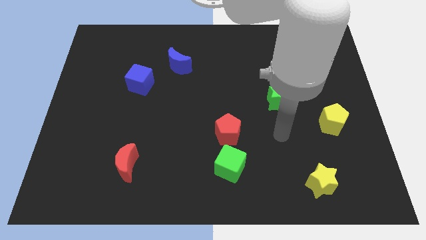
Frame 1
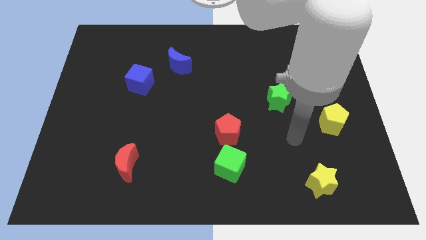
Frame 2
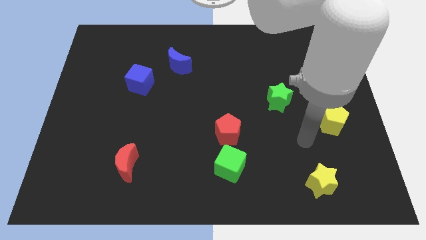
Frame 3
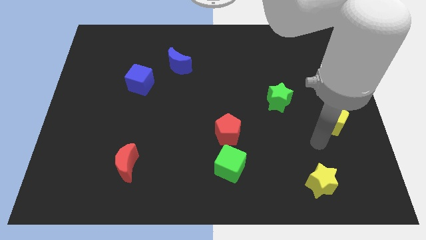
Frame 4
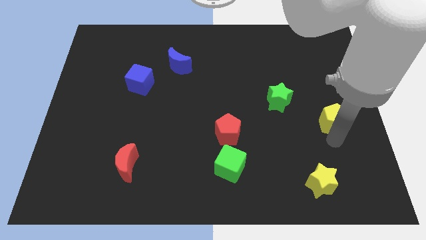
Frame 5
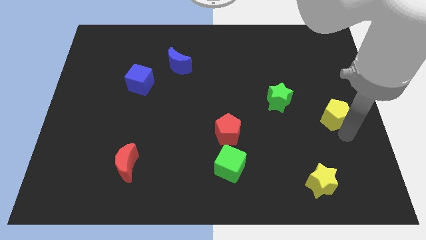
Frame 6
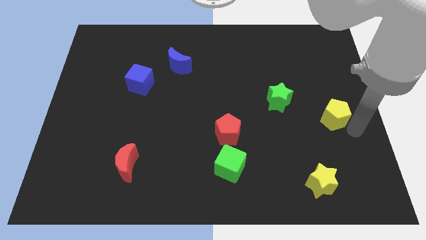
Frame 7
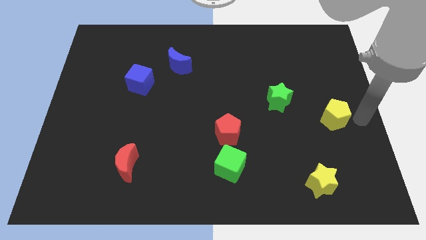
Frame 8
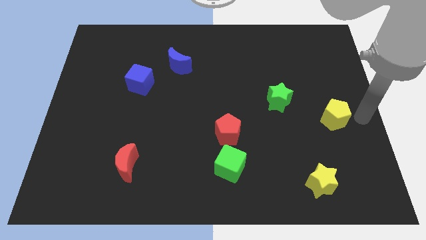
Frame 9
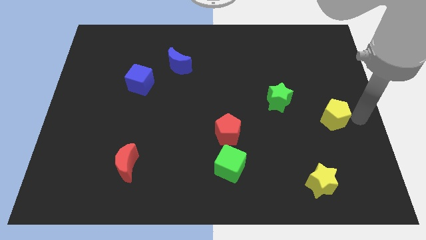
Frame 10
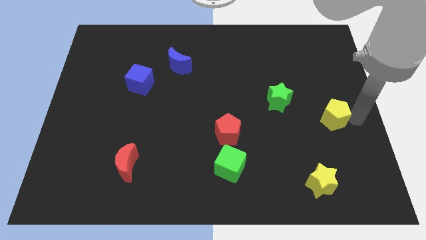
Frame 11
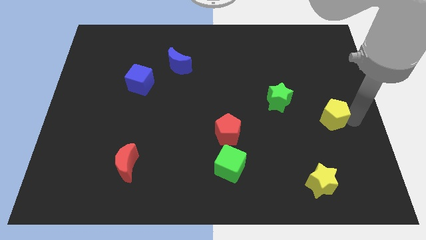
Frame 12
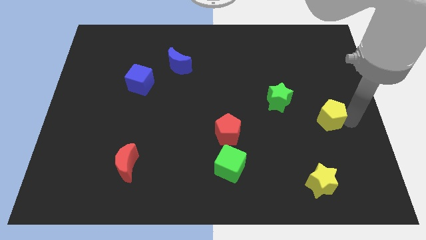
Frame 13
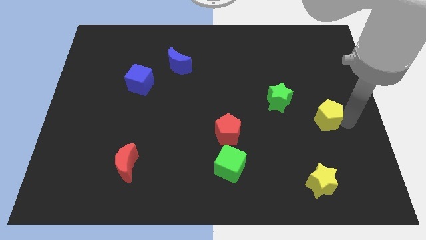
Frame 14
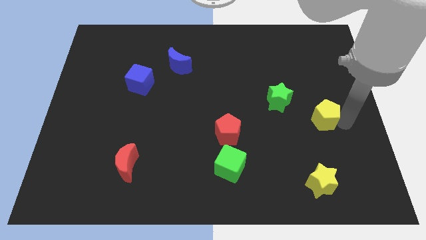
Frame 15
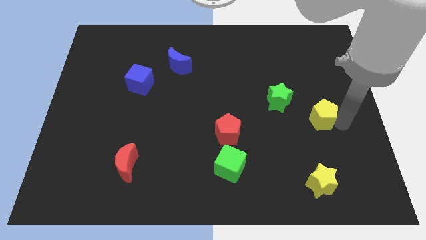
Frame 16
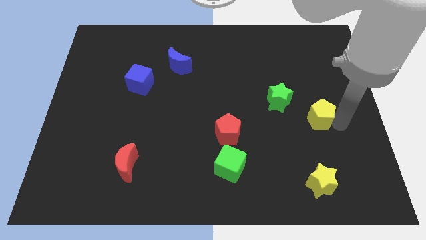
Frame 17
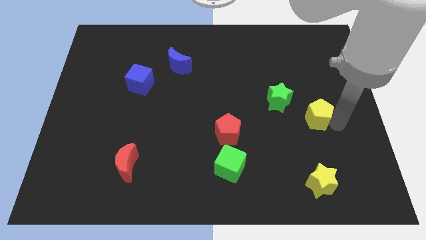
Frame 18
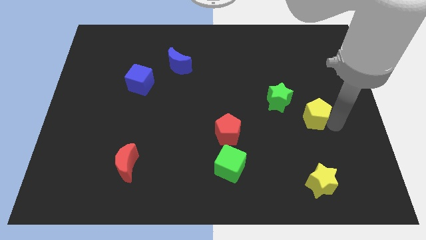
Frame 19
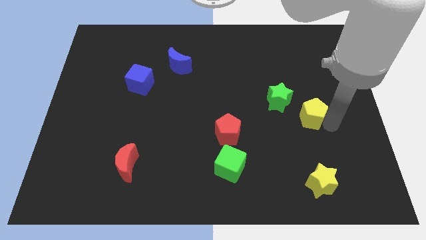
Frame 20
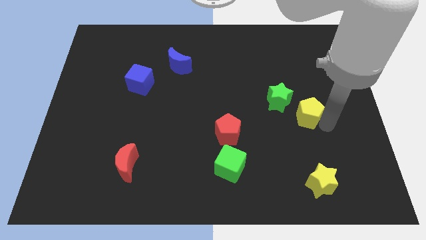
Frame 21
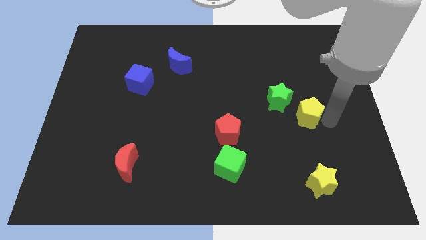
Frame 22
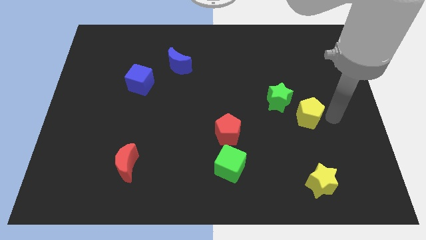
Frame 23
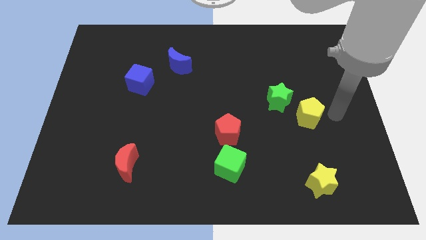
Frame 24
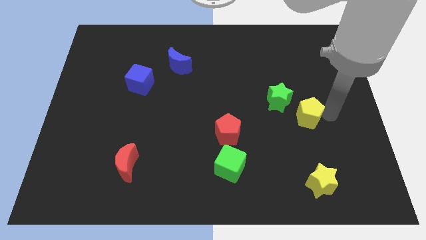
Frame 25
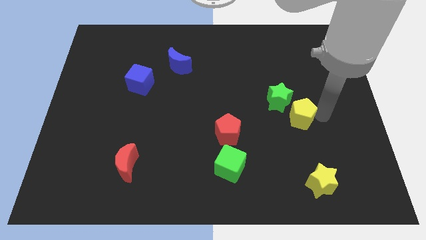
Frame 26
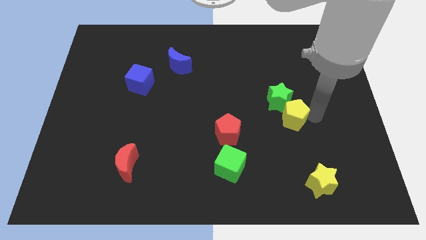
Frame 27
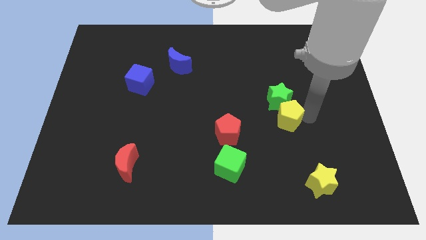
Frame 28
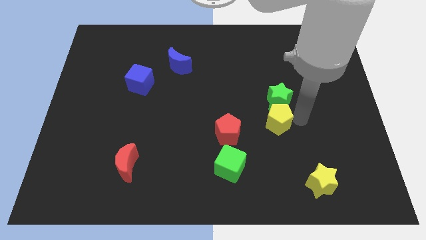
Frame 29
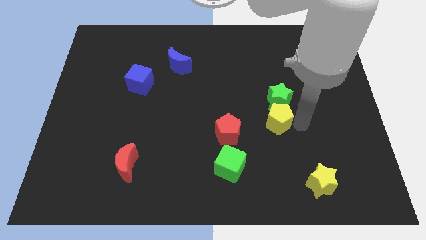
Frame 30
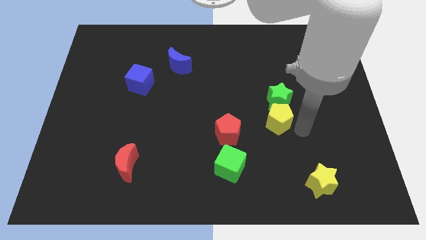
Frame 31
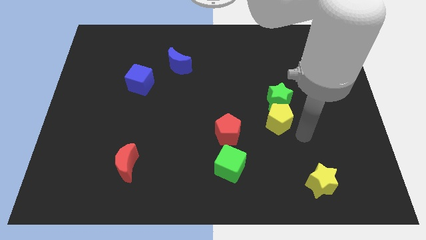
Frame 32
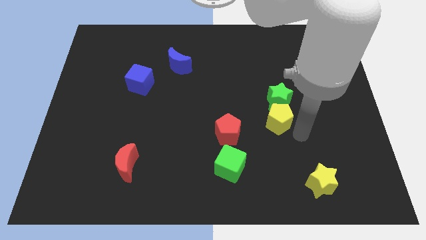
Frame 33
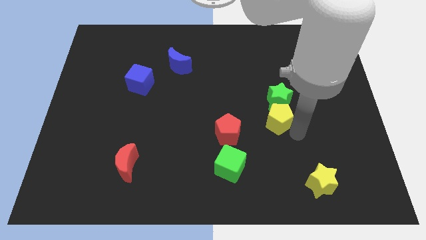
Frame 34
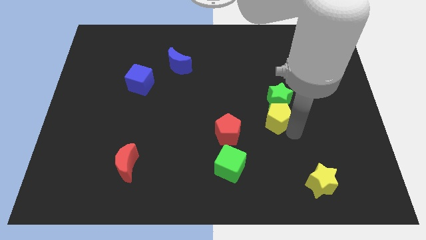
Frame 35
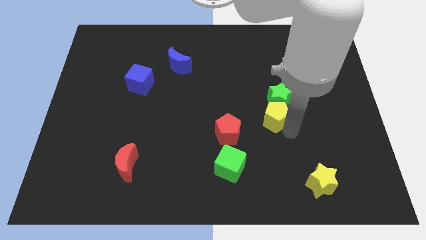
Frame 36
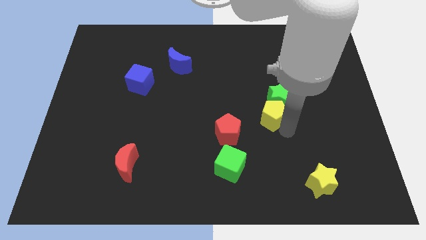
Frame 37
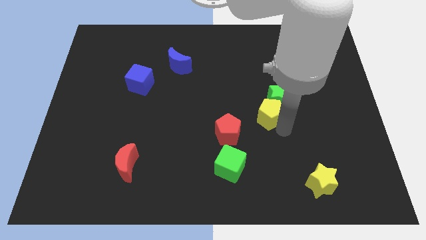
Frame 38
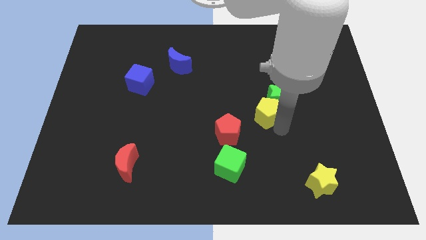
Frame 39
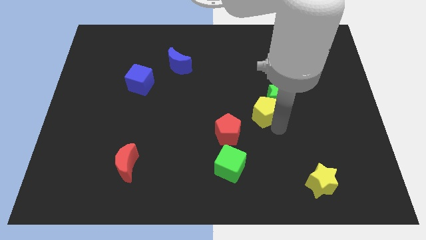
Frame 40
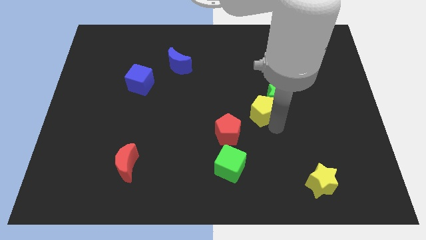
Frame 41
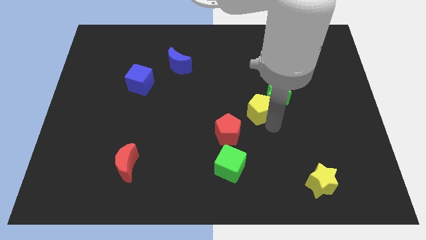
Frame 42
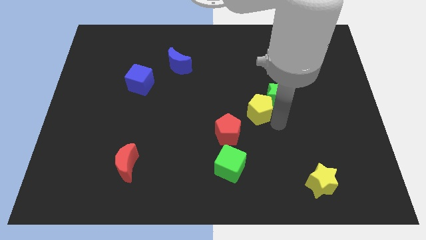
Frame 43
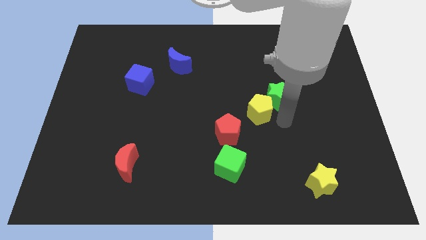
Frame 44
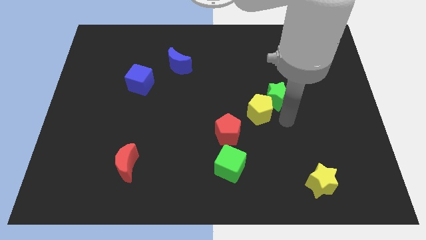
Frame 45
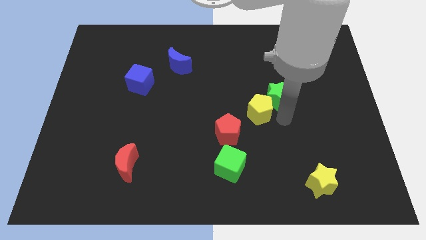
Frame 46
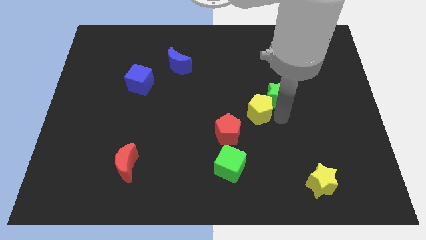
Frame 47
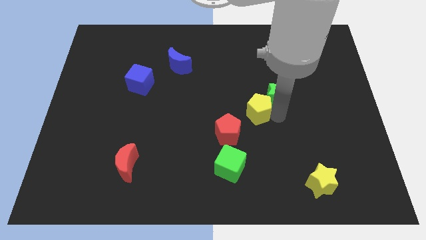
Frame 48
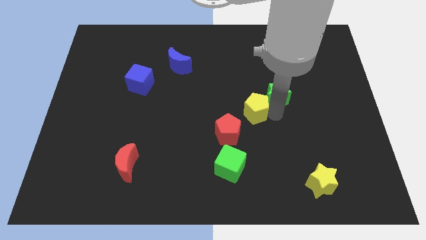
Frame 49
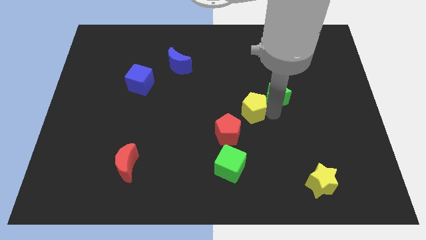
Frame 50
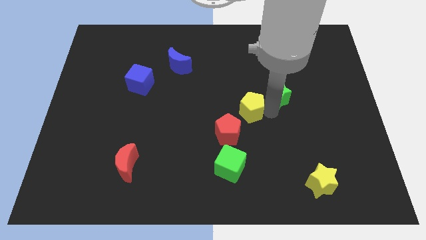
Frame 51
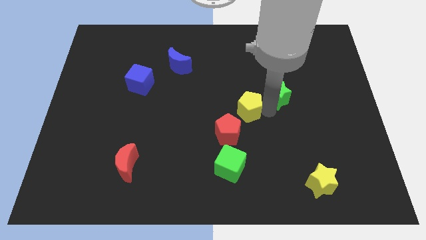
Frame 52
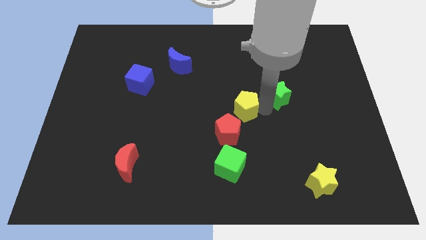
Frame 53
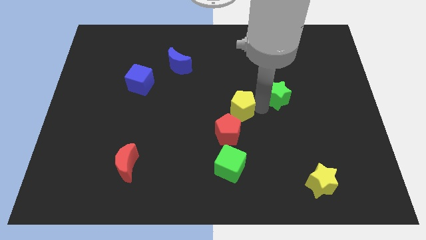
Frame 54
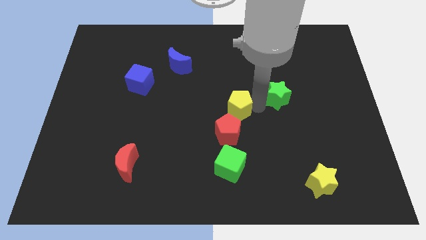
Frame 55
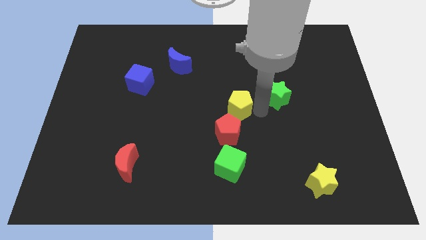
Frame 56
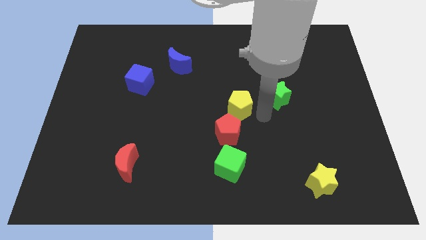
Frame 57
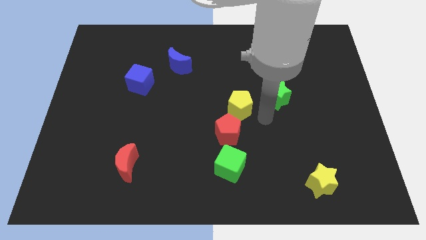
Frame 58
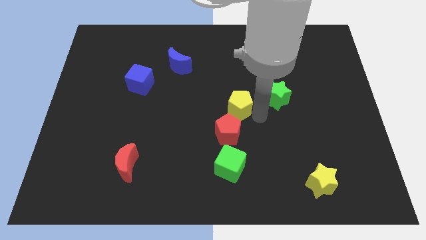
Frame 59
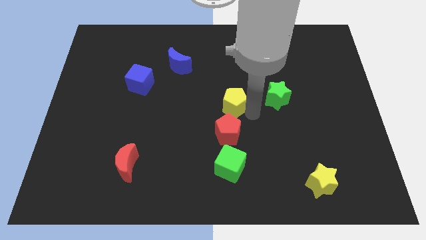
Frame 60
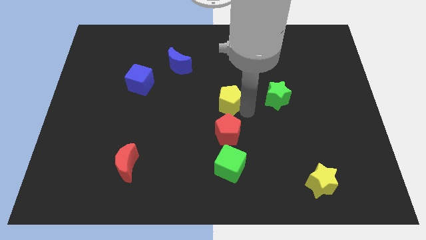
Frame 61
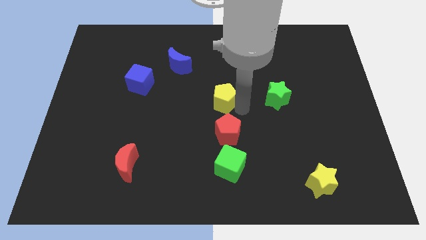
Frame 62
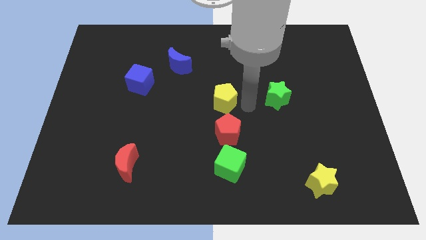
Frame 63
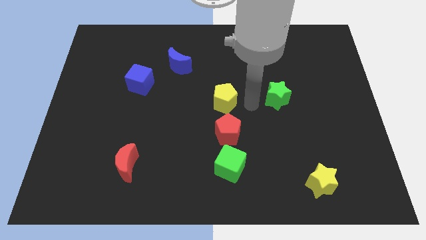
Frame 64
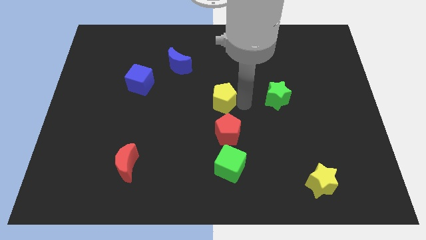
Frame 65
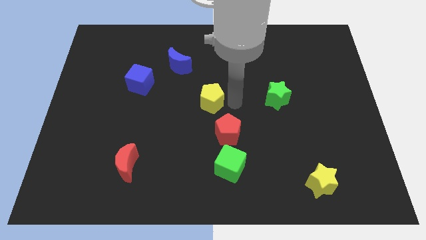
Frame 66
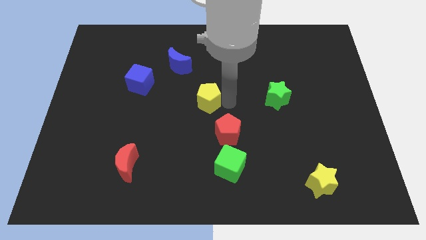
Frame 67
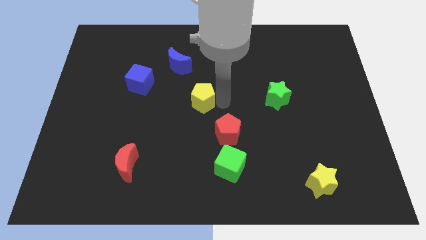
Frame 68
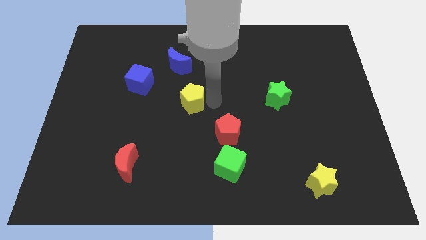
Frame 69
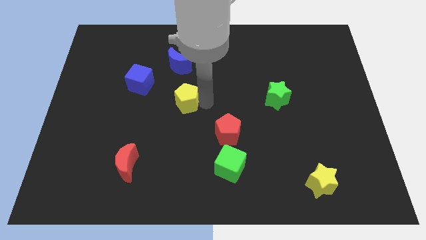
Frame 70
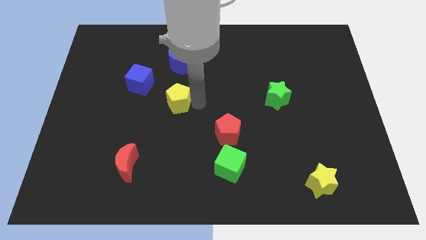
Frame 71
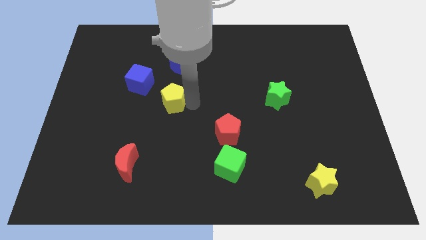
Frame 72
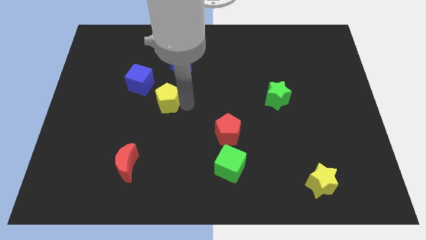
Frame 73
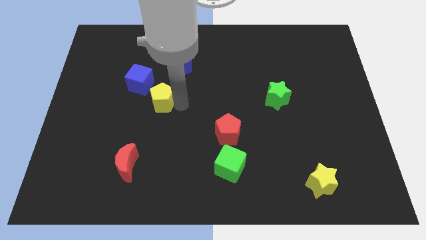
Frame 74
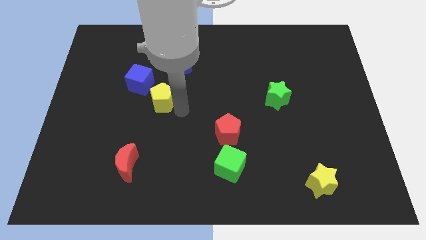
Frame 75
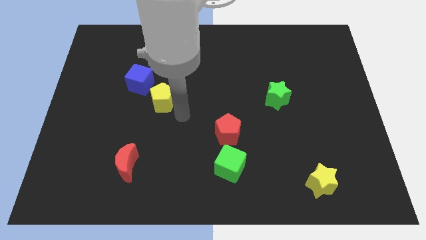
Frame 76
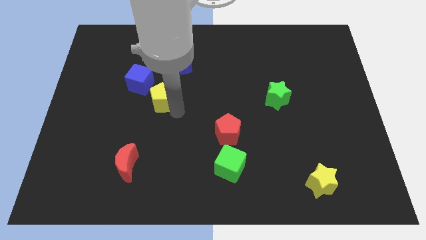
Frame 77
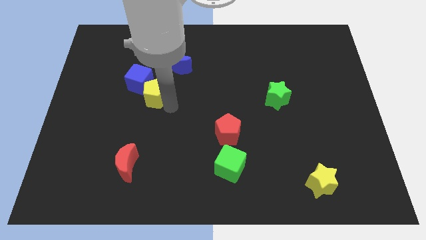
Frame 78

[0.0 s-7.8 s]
put the yellow pentagon towards the blue cube
